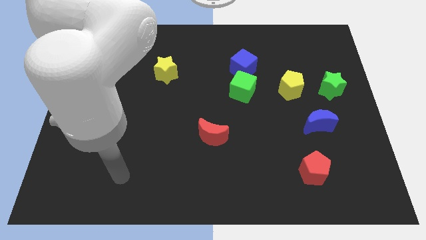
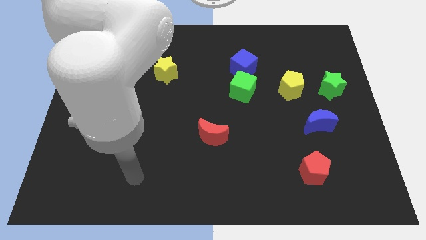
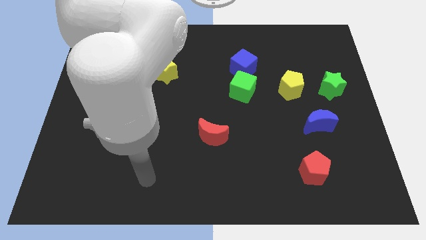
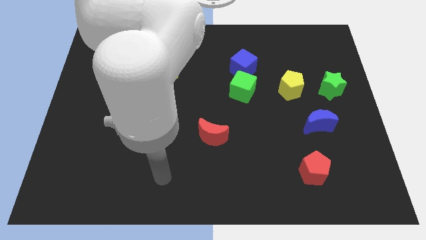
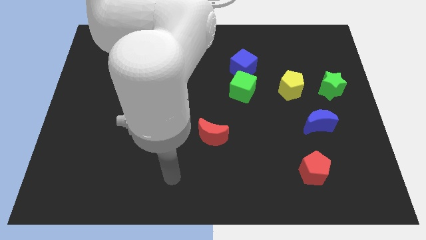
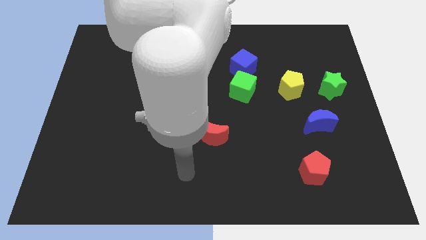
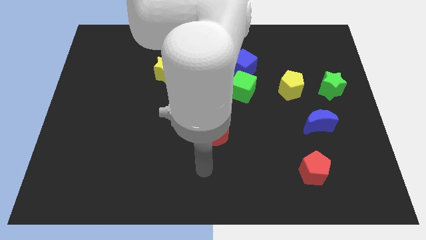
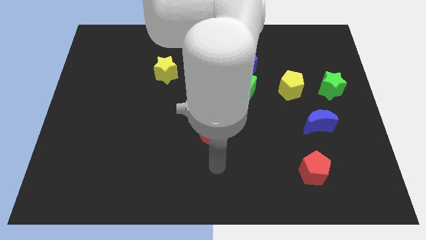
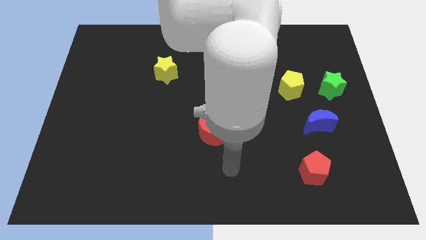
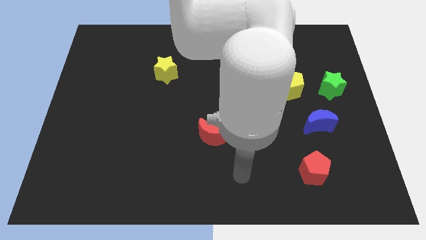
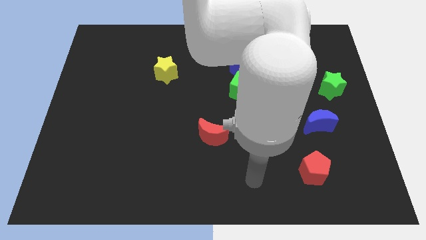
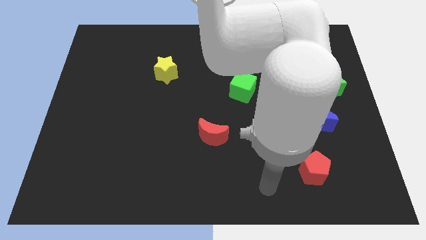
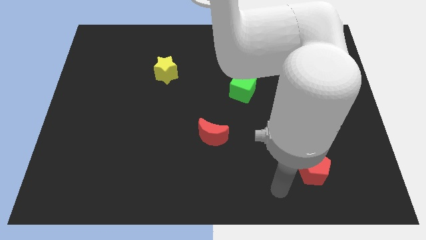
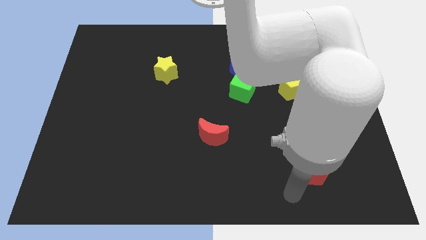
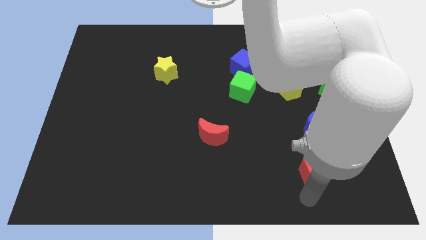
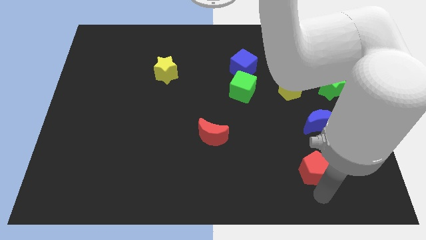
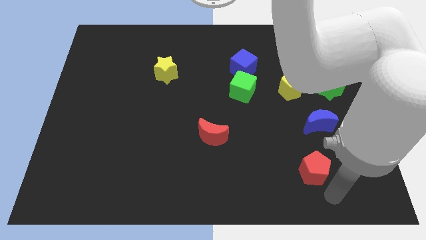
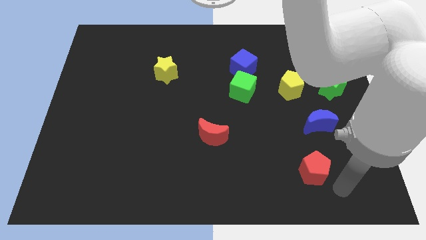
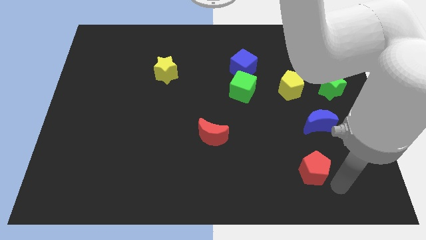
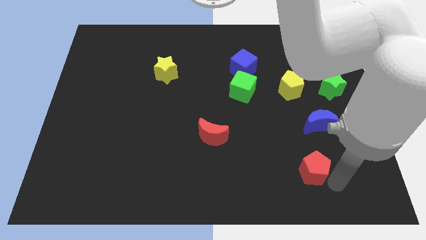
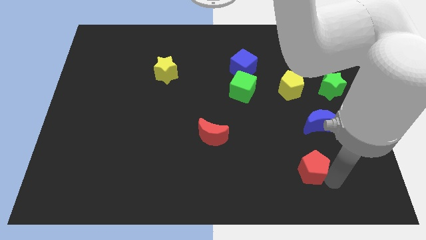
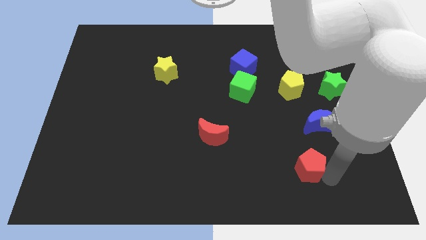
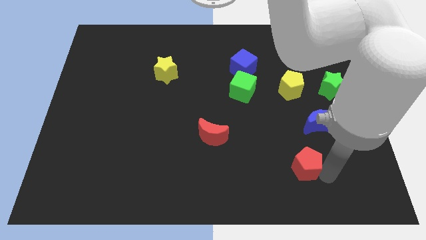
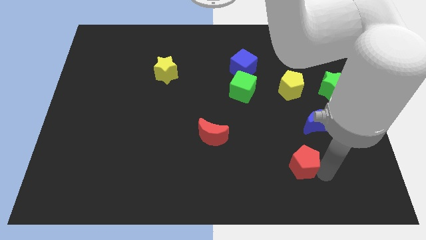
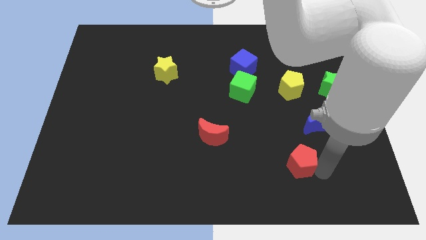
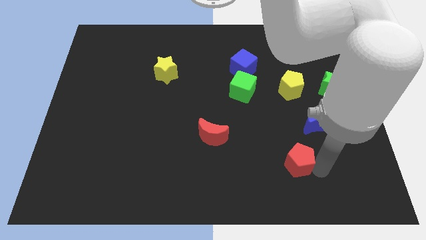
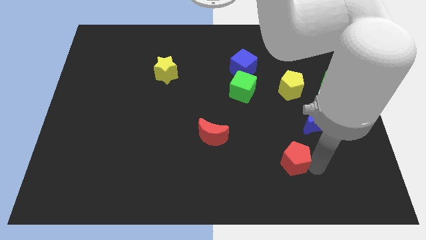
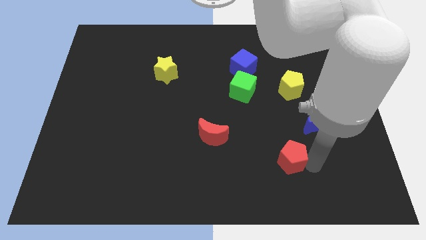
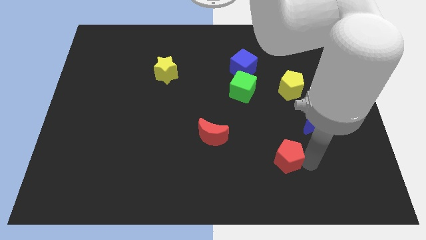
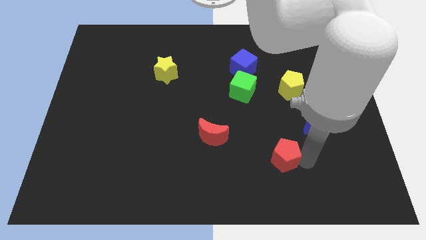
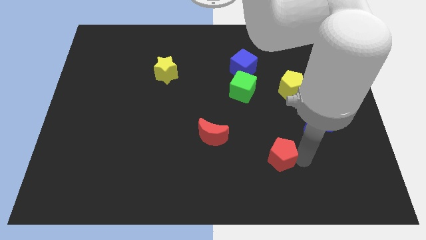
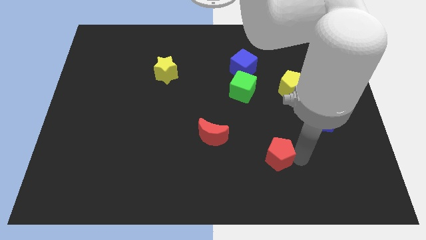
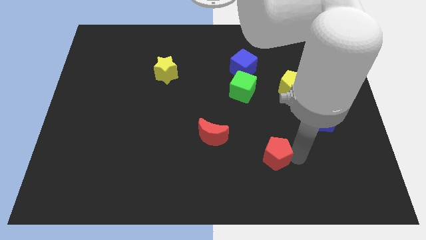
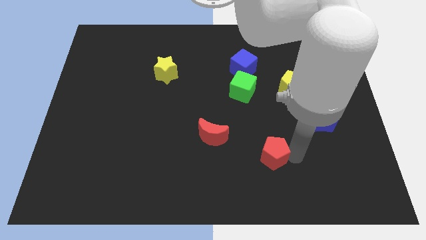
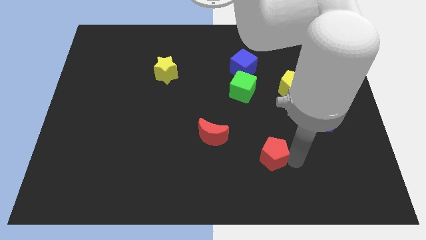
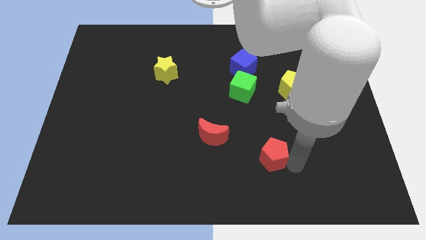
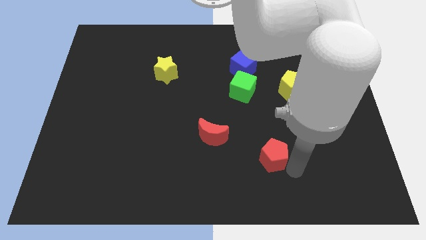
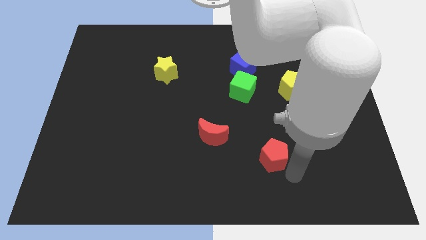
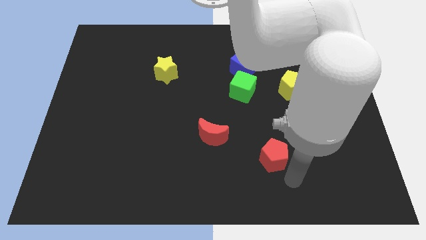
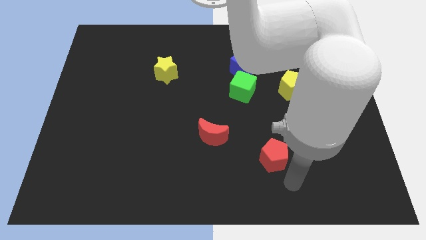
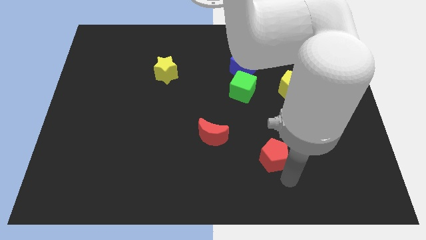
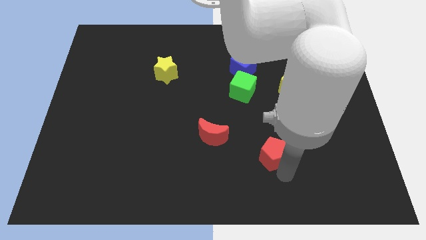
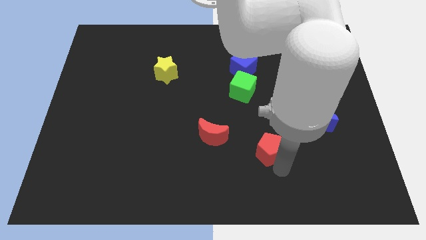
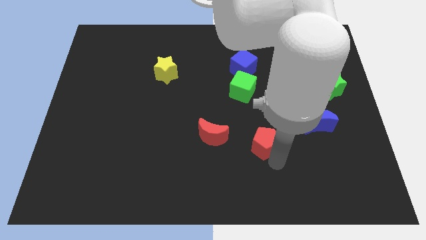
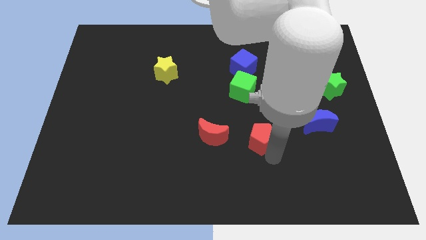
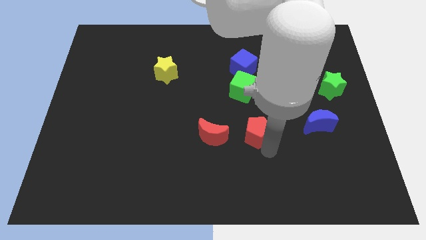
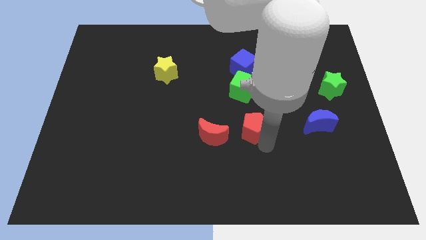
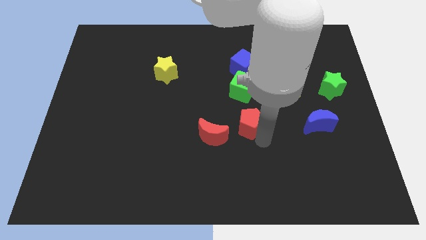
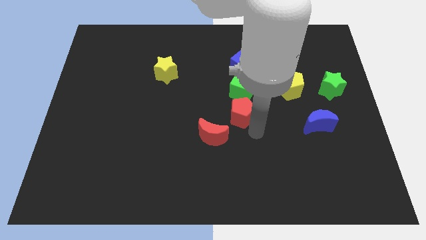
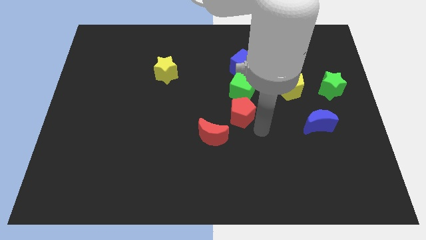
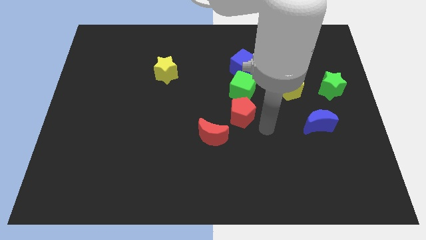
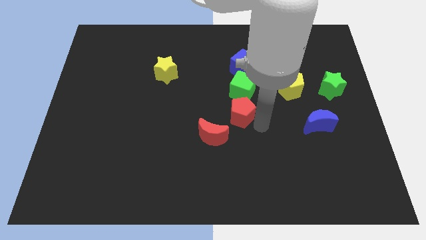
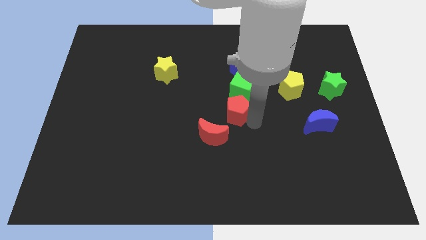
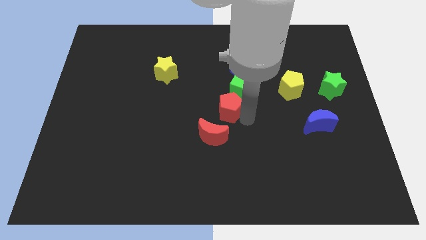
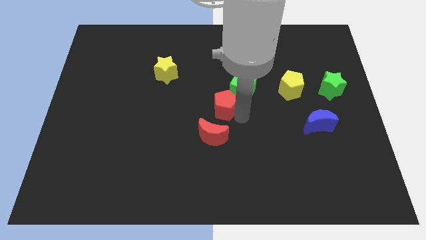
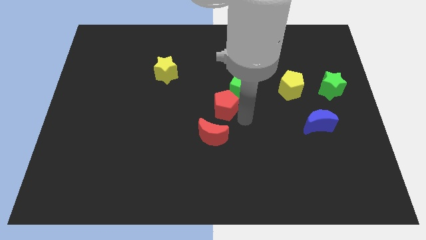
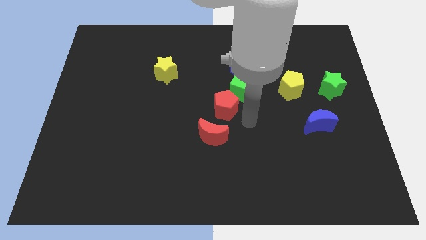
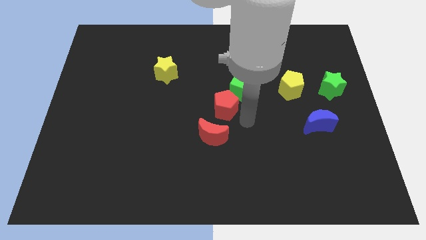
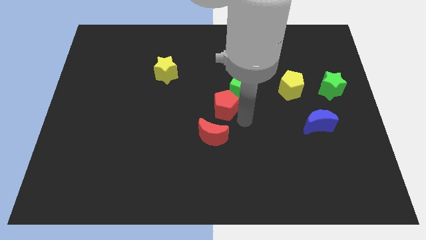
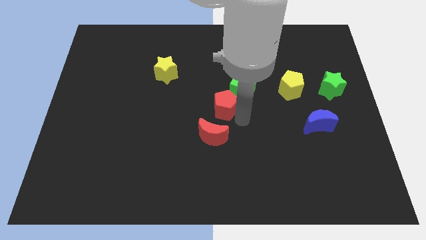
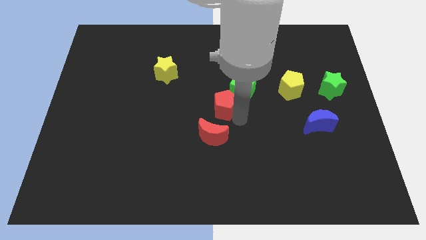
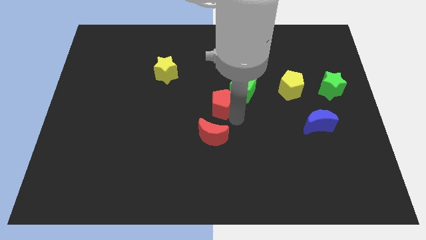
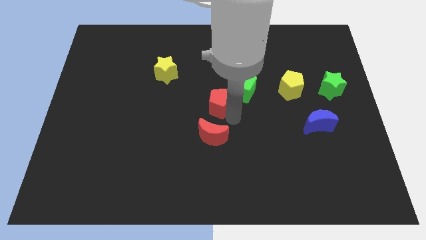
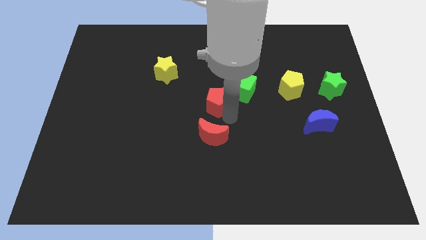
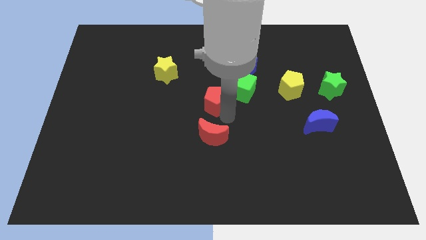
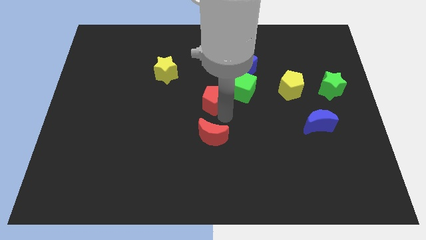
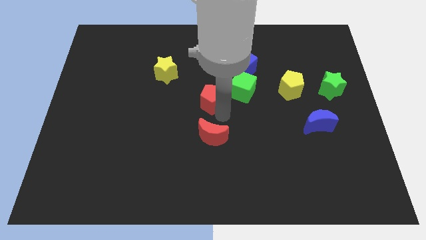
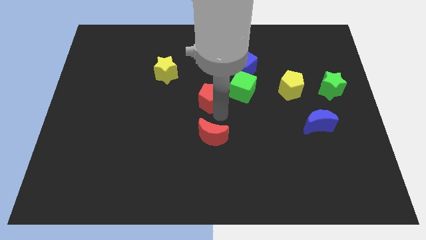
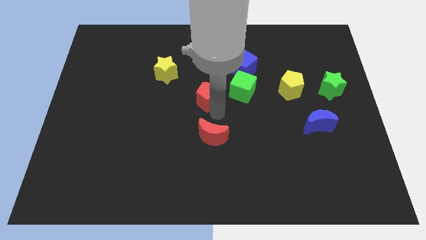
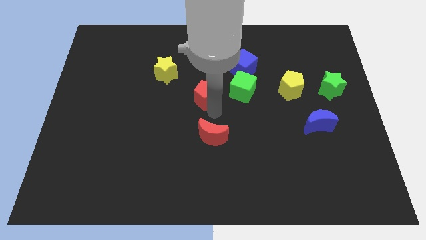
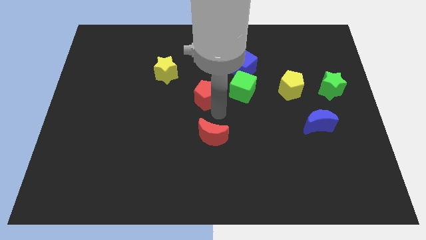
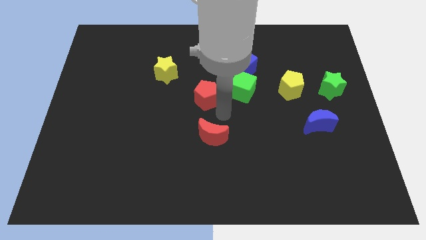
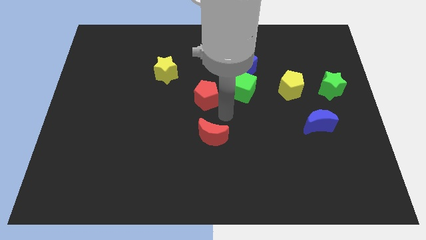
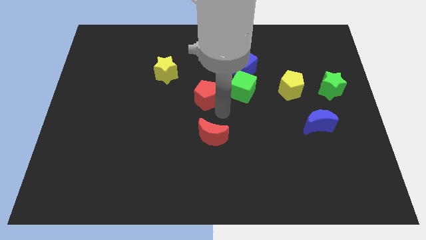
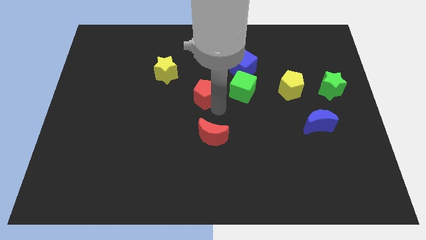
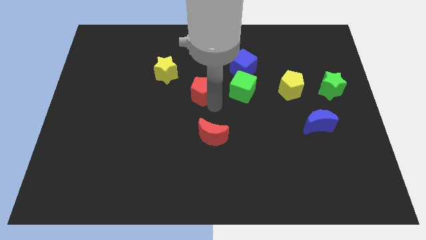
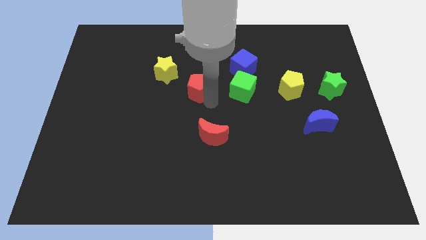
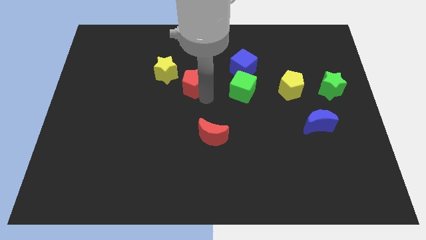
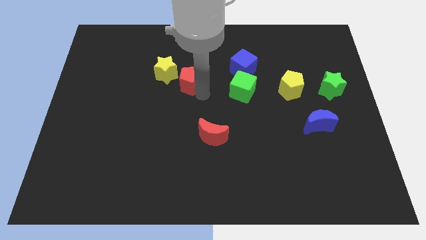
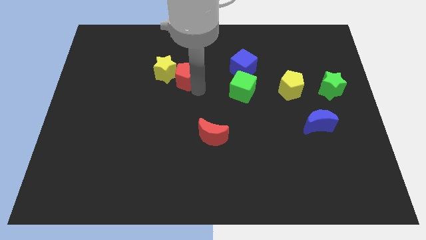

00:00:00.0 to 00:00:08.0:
move the red pentagon towards the yellow star
